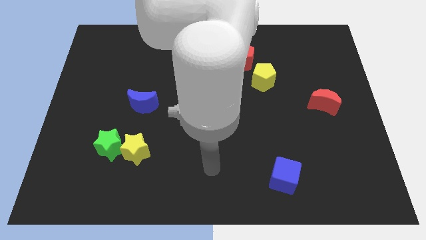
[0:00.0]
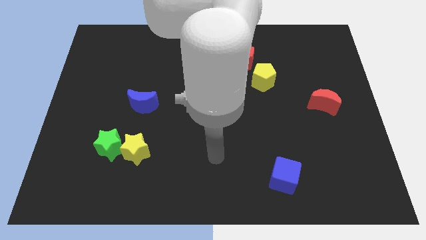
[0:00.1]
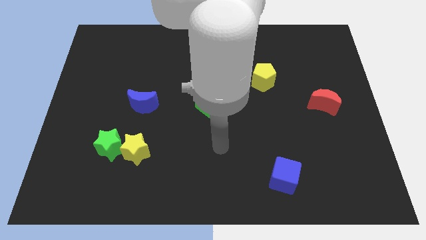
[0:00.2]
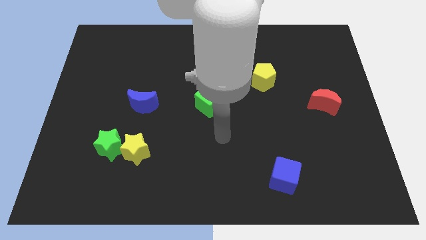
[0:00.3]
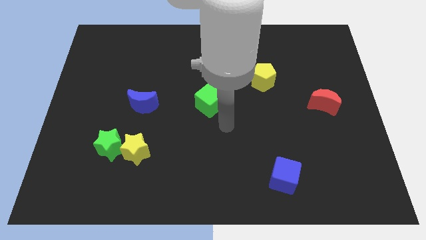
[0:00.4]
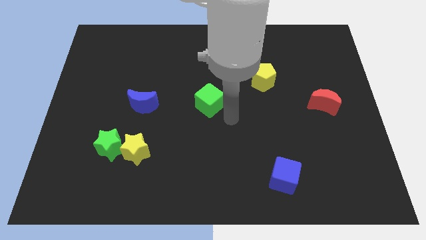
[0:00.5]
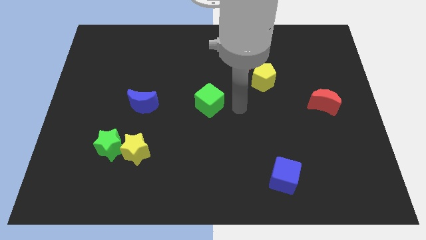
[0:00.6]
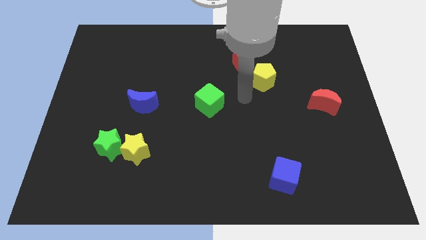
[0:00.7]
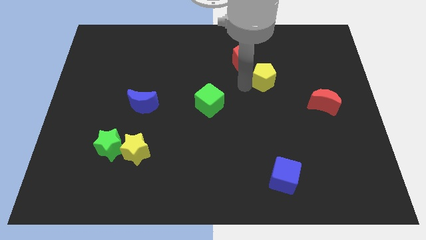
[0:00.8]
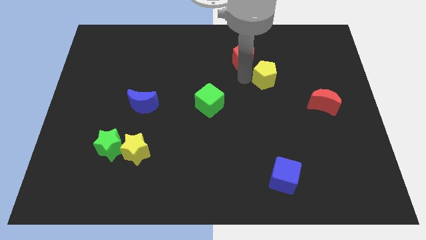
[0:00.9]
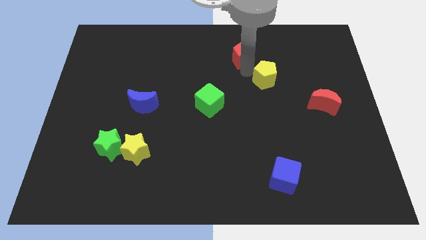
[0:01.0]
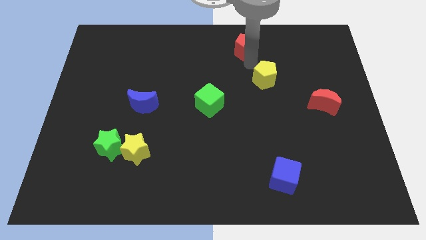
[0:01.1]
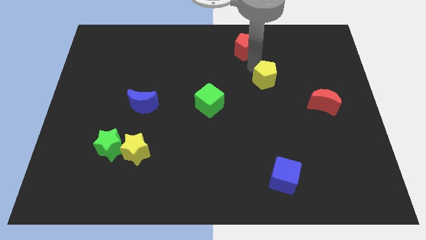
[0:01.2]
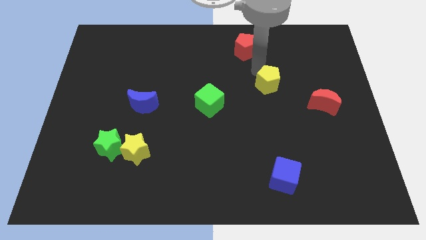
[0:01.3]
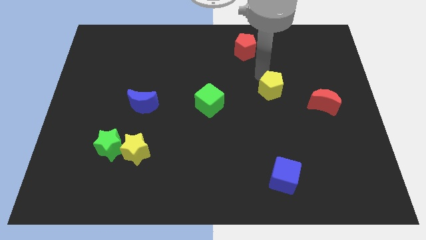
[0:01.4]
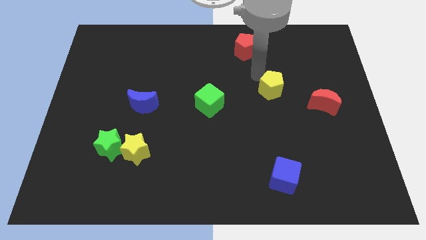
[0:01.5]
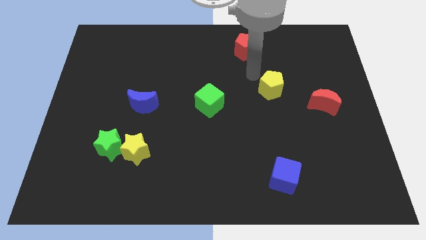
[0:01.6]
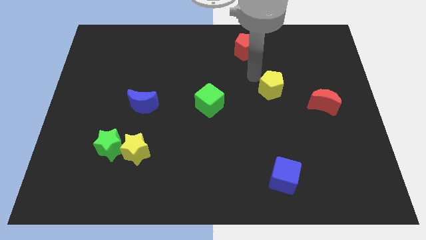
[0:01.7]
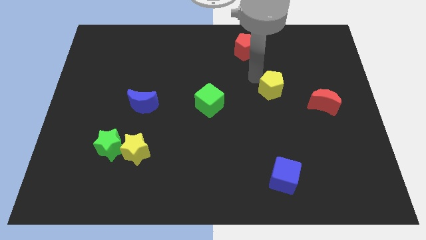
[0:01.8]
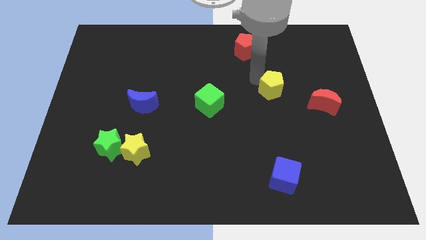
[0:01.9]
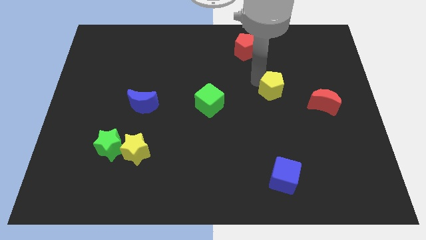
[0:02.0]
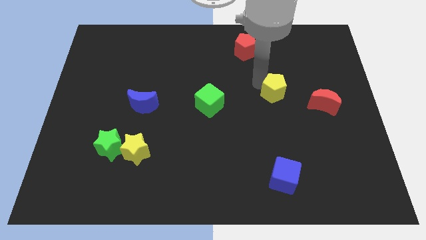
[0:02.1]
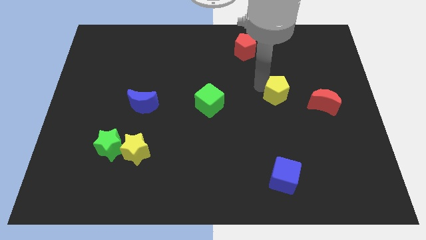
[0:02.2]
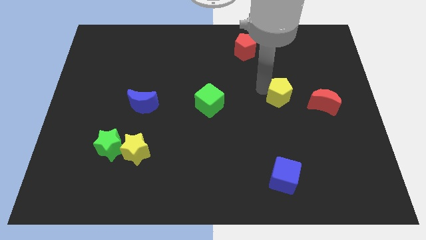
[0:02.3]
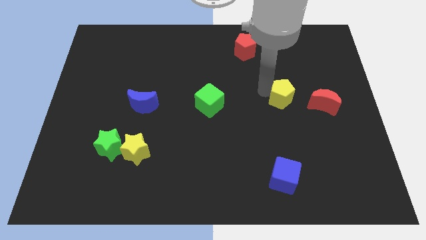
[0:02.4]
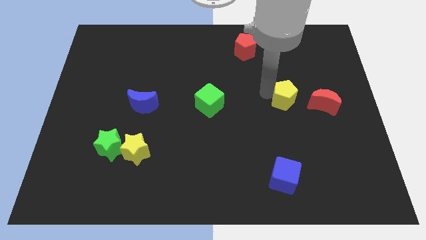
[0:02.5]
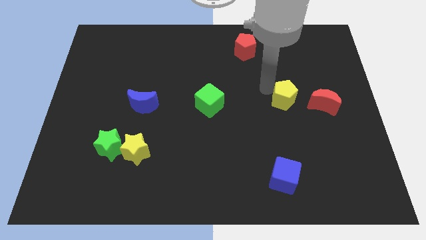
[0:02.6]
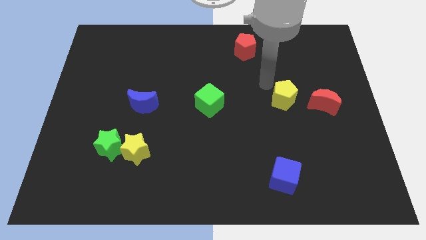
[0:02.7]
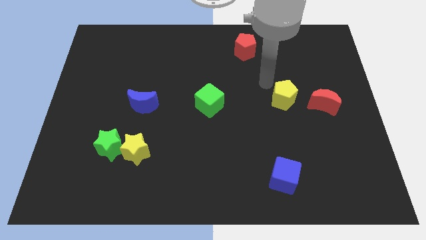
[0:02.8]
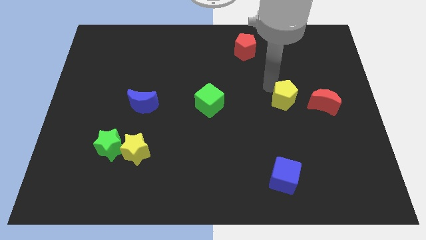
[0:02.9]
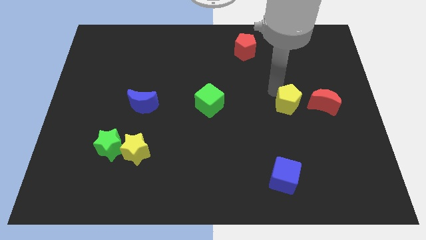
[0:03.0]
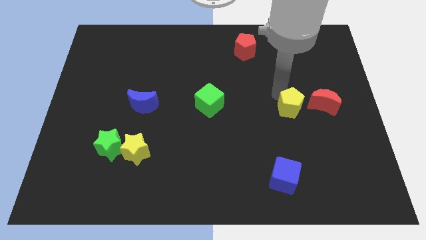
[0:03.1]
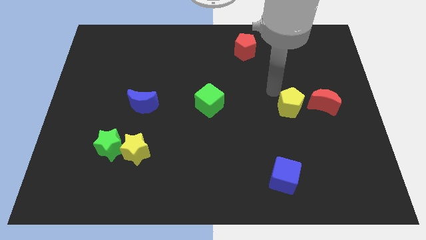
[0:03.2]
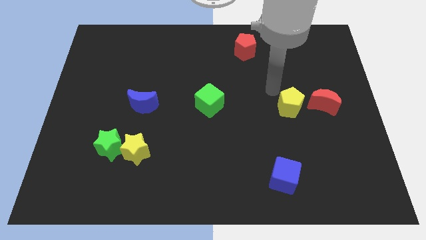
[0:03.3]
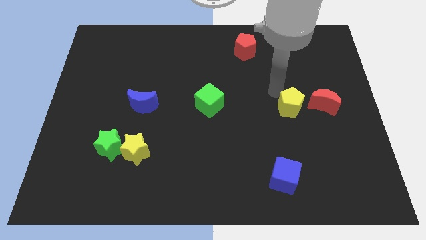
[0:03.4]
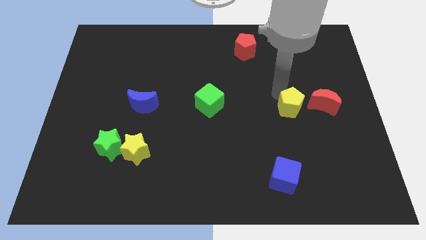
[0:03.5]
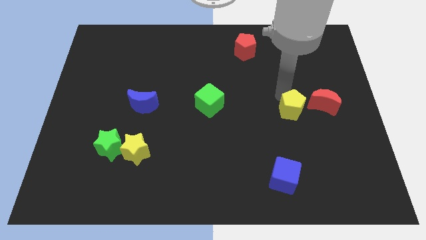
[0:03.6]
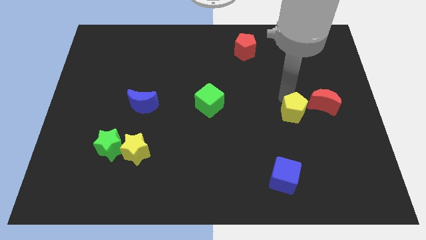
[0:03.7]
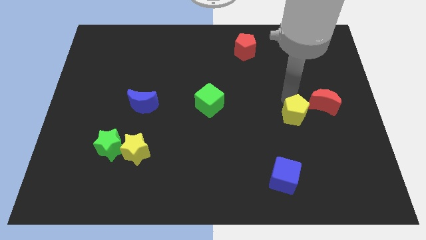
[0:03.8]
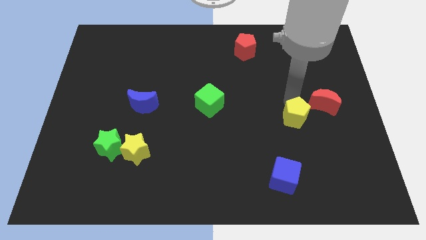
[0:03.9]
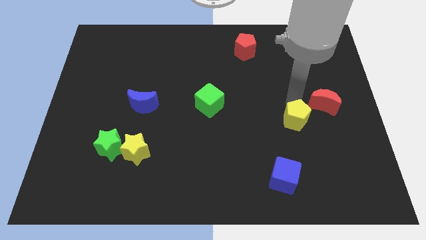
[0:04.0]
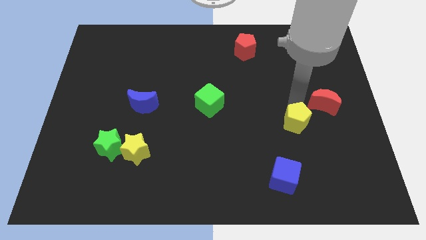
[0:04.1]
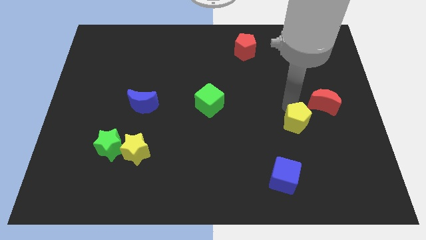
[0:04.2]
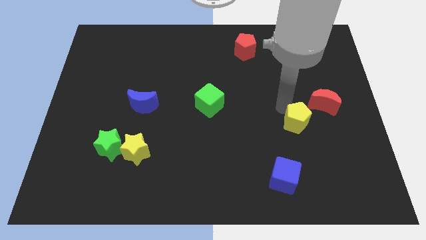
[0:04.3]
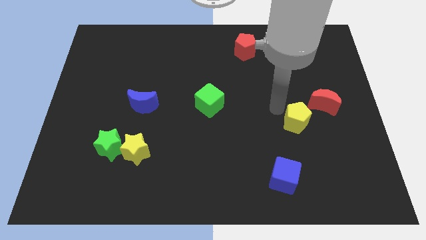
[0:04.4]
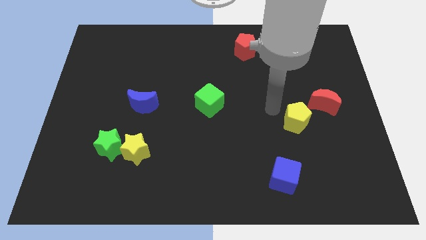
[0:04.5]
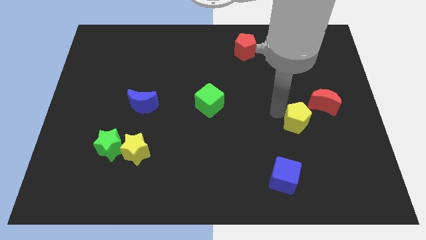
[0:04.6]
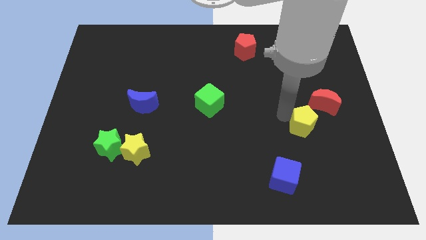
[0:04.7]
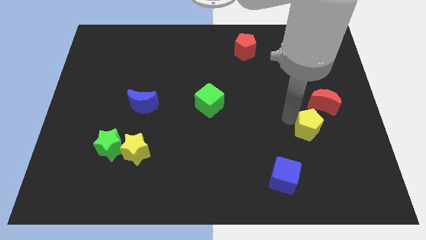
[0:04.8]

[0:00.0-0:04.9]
put the yellow pentagon below the red moon

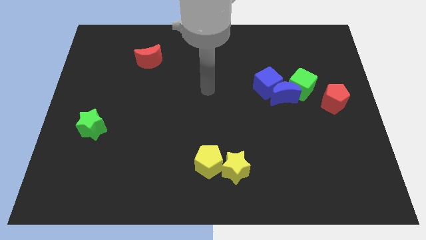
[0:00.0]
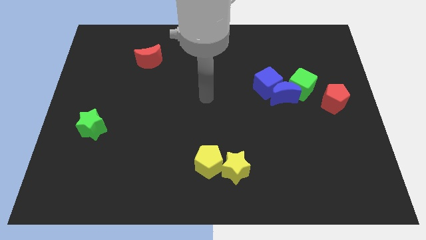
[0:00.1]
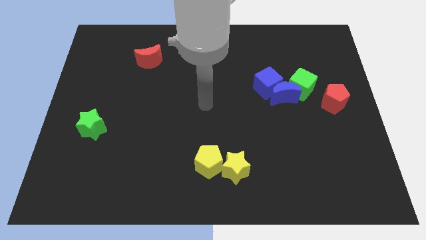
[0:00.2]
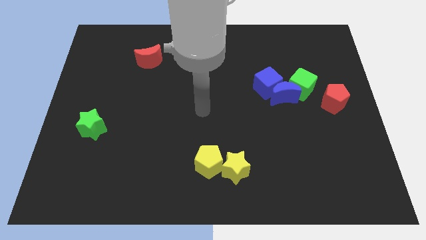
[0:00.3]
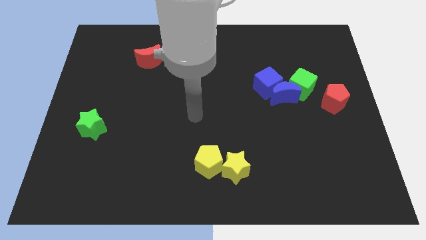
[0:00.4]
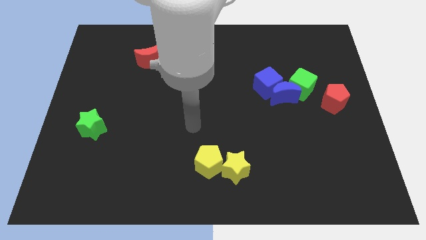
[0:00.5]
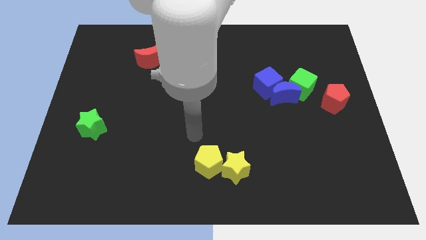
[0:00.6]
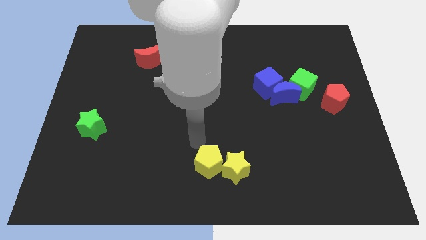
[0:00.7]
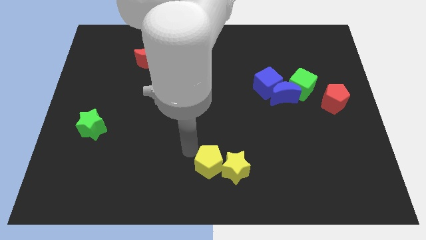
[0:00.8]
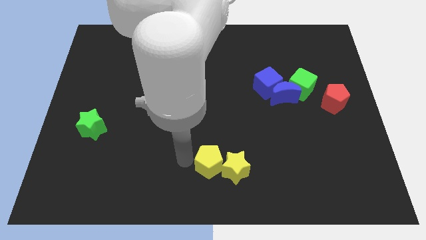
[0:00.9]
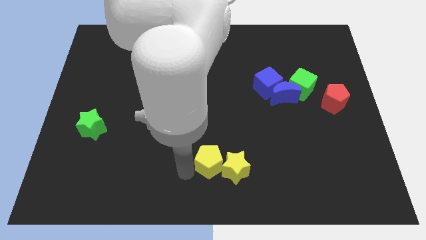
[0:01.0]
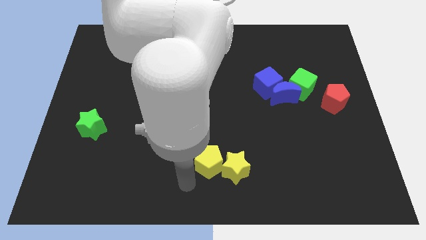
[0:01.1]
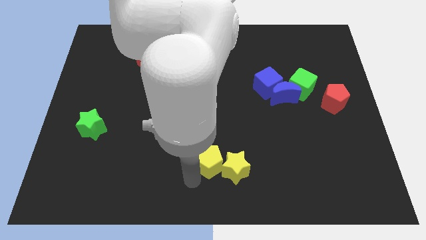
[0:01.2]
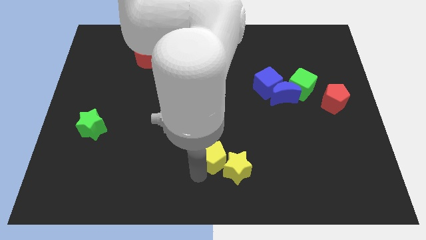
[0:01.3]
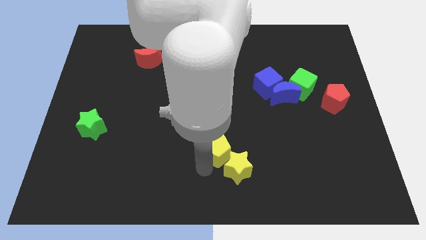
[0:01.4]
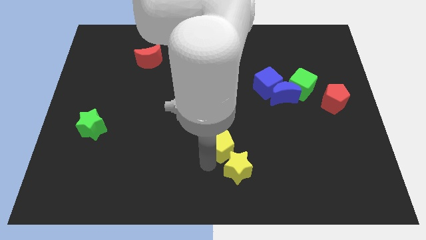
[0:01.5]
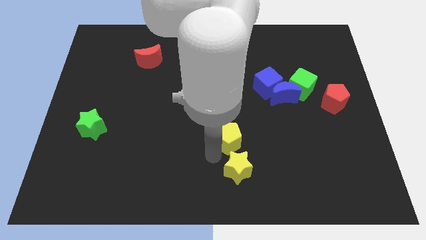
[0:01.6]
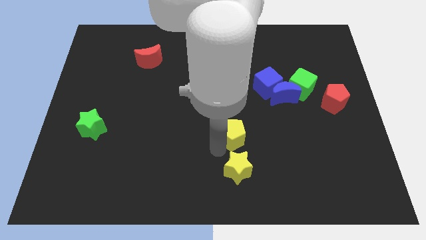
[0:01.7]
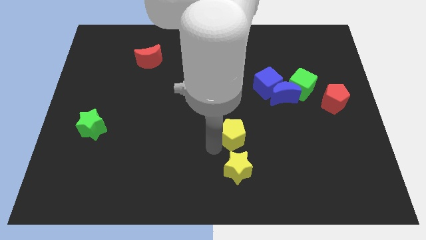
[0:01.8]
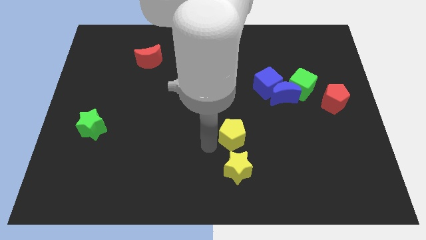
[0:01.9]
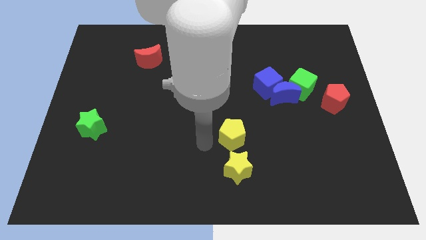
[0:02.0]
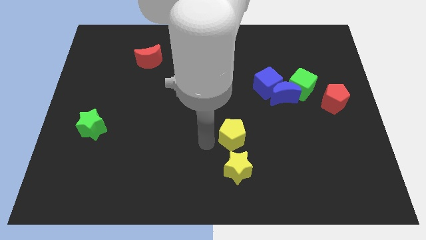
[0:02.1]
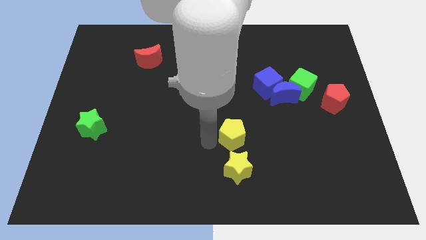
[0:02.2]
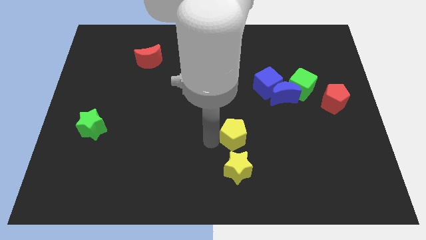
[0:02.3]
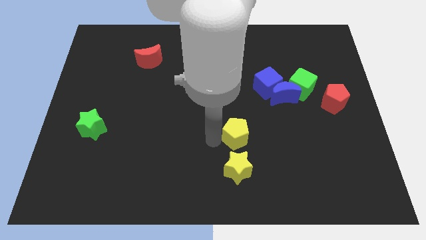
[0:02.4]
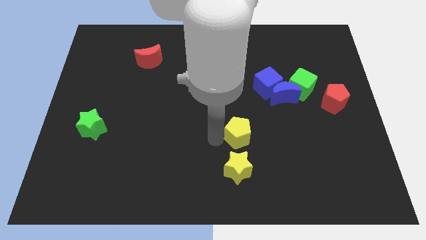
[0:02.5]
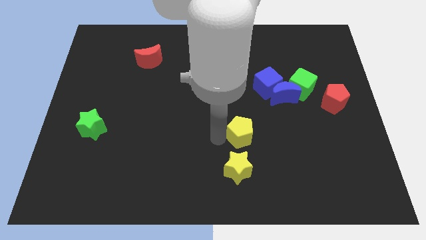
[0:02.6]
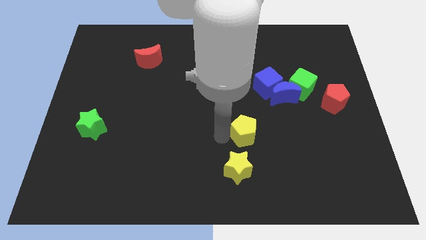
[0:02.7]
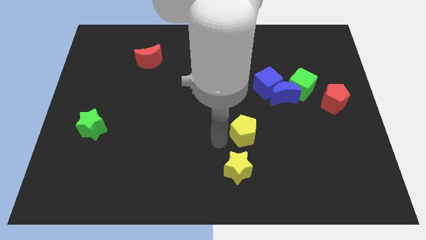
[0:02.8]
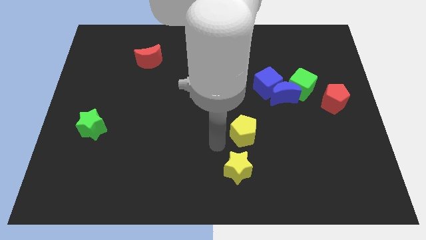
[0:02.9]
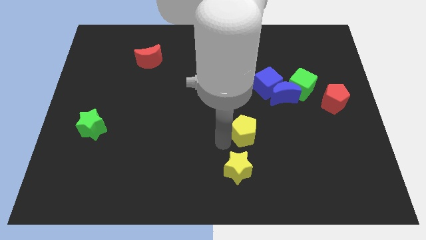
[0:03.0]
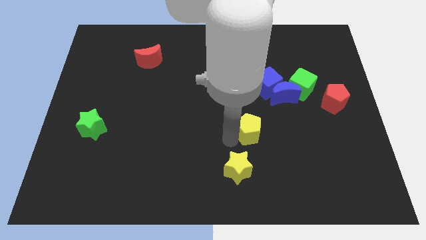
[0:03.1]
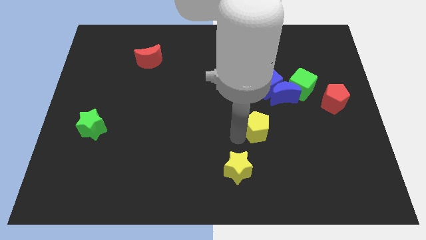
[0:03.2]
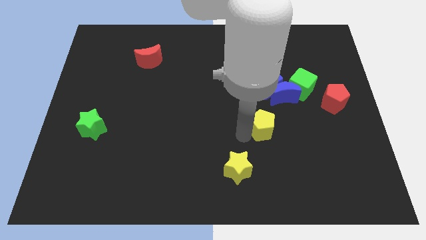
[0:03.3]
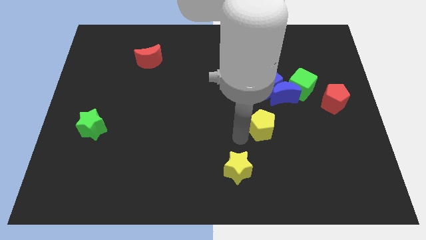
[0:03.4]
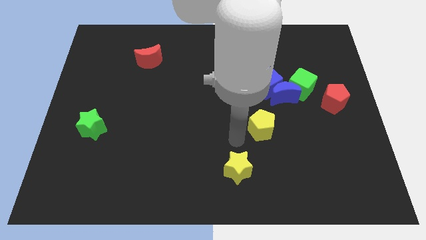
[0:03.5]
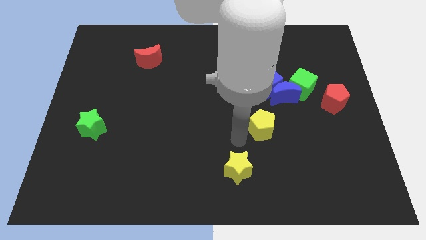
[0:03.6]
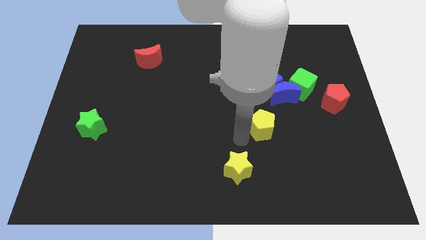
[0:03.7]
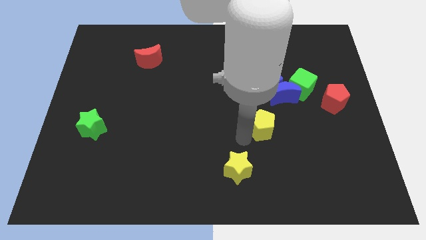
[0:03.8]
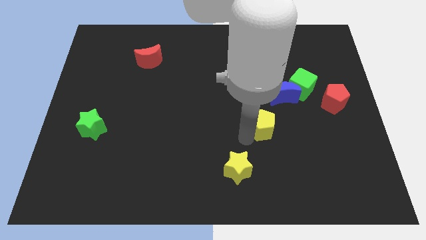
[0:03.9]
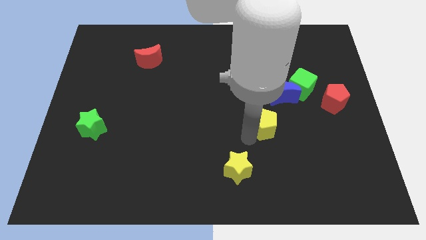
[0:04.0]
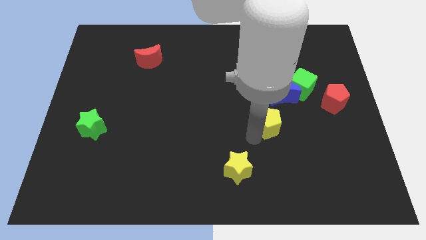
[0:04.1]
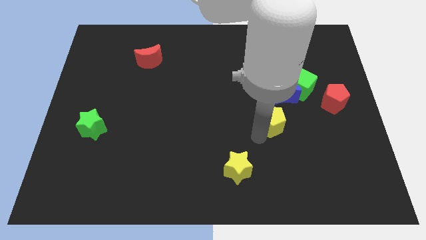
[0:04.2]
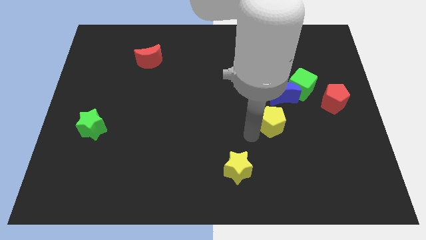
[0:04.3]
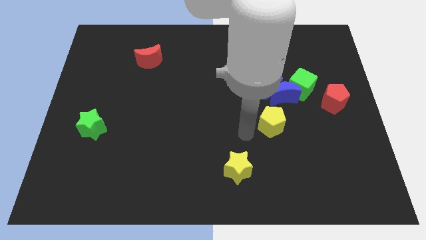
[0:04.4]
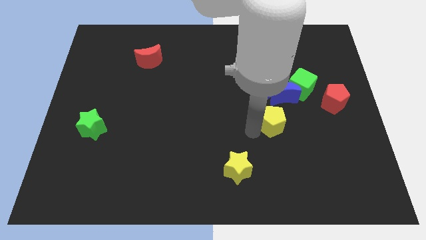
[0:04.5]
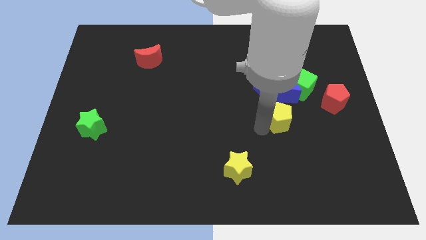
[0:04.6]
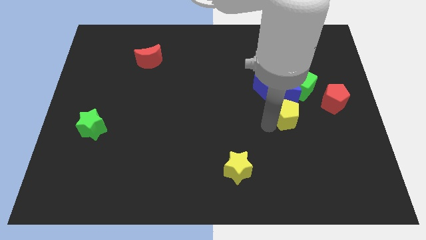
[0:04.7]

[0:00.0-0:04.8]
move the yellow pentagon to the bottom right of the blue moon
